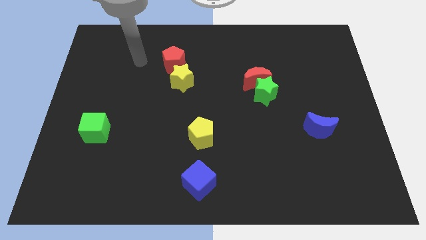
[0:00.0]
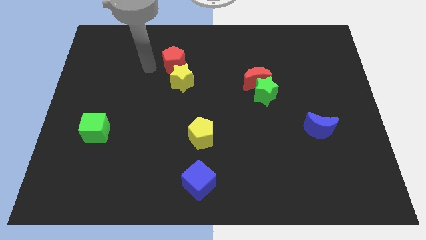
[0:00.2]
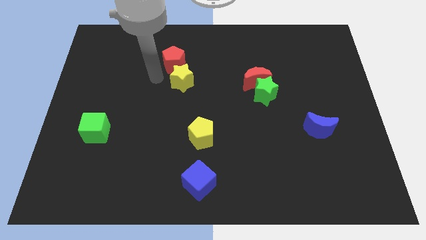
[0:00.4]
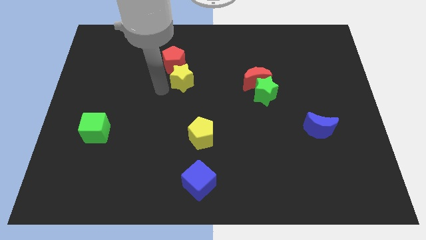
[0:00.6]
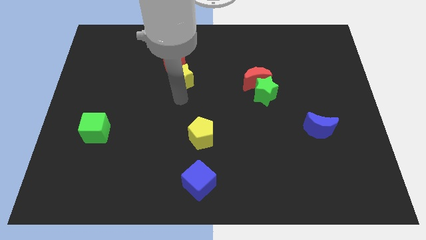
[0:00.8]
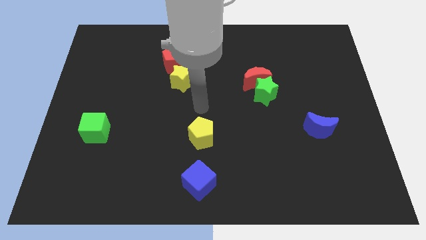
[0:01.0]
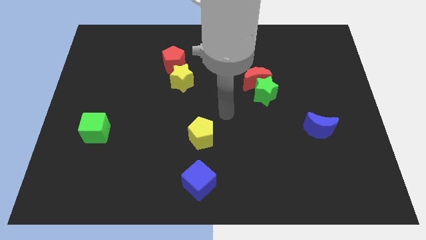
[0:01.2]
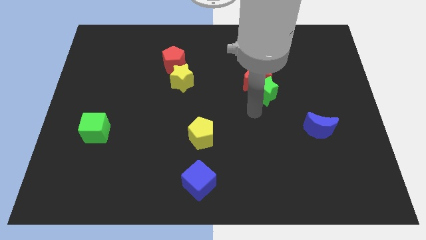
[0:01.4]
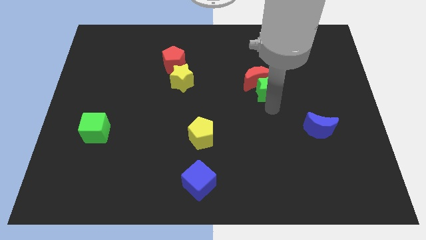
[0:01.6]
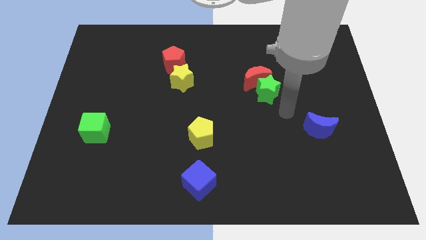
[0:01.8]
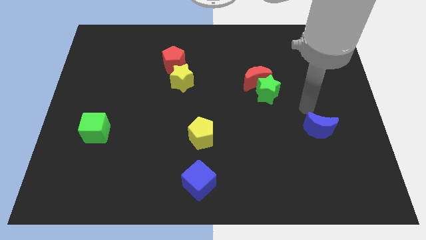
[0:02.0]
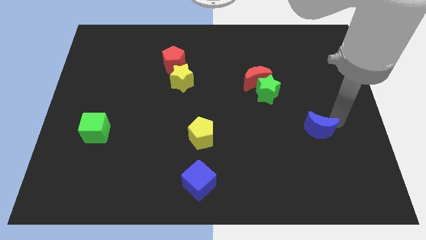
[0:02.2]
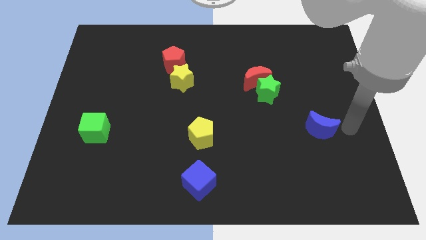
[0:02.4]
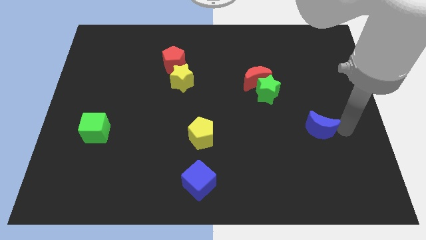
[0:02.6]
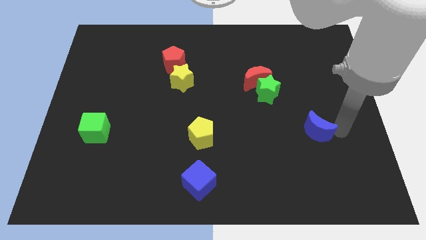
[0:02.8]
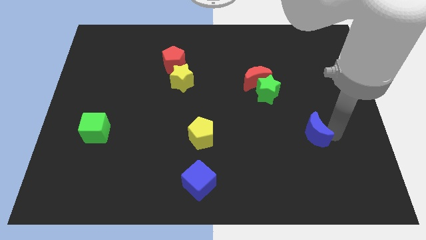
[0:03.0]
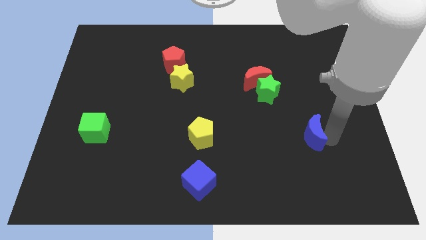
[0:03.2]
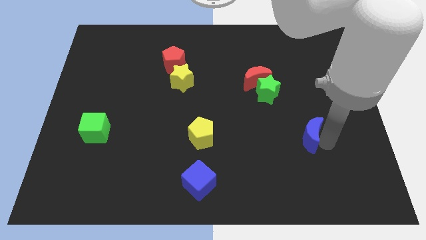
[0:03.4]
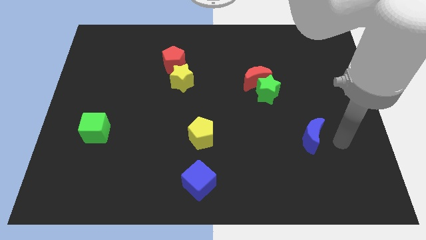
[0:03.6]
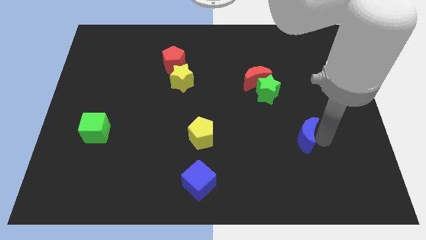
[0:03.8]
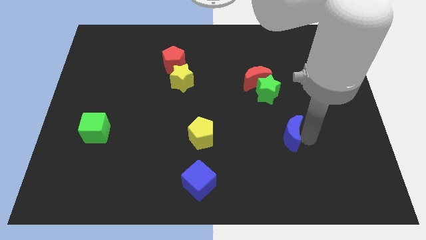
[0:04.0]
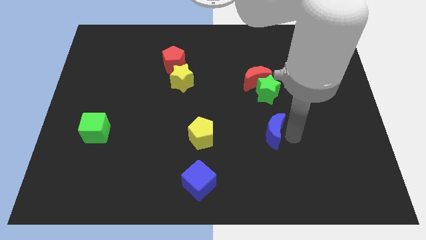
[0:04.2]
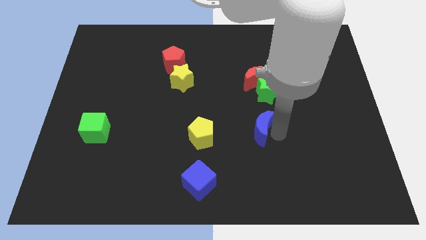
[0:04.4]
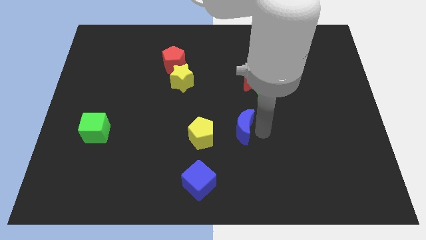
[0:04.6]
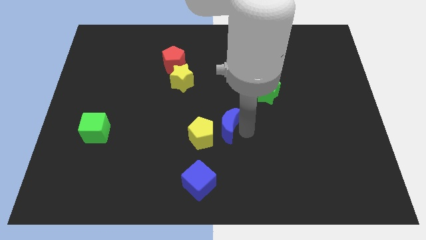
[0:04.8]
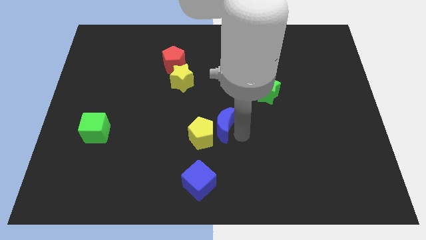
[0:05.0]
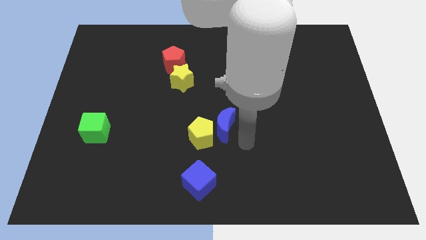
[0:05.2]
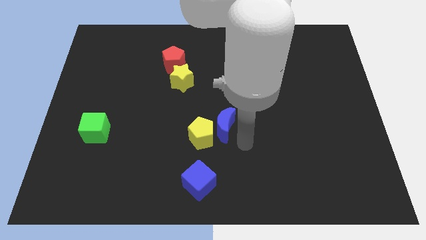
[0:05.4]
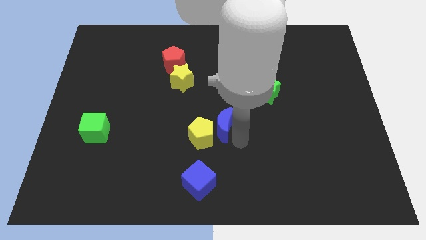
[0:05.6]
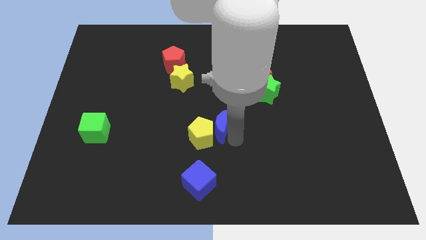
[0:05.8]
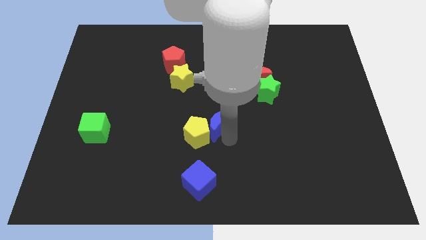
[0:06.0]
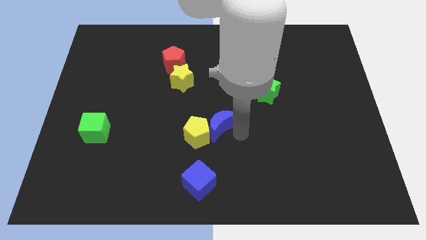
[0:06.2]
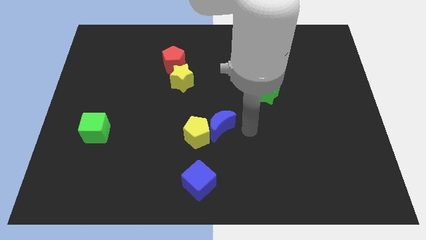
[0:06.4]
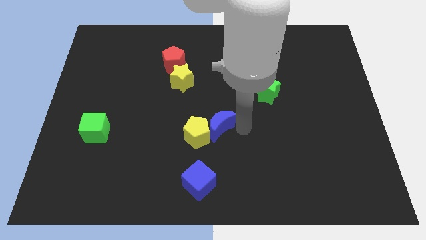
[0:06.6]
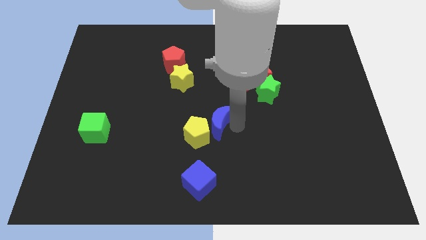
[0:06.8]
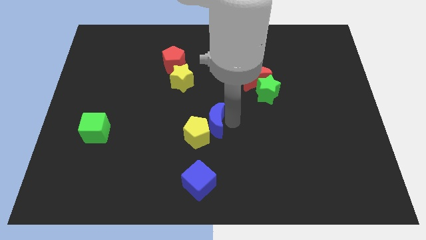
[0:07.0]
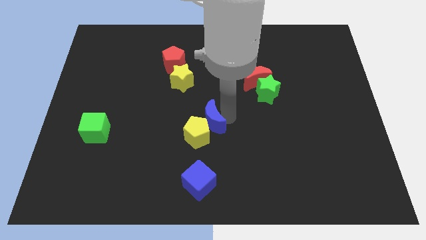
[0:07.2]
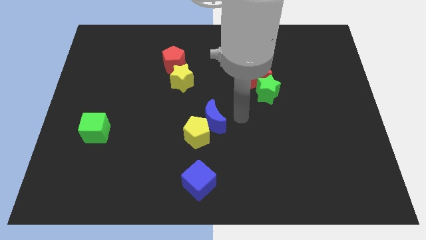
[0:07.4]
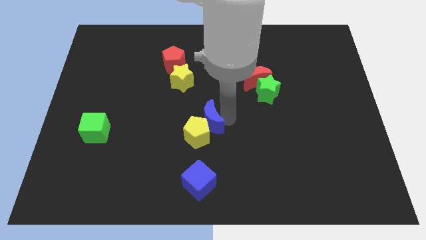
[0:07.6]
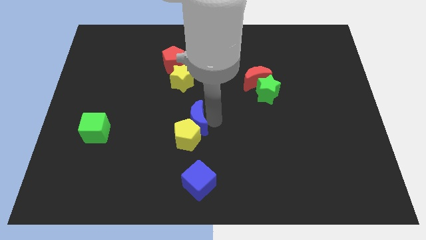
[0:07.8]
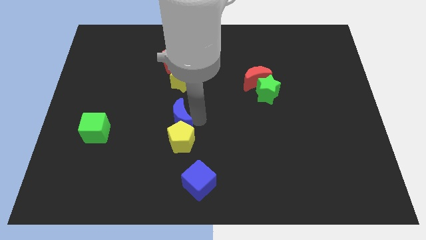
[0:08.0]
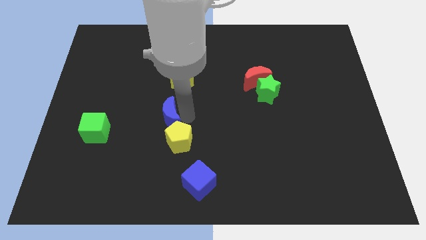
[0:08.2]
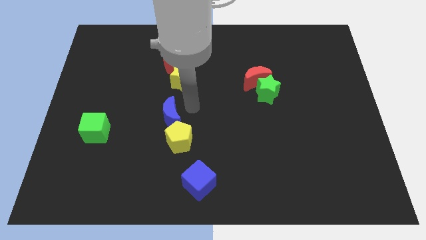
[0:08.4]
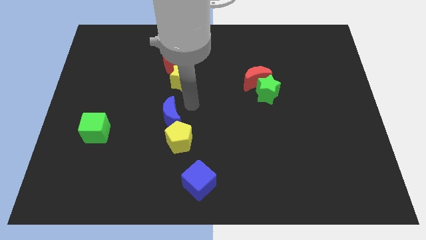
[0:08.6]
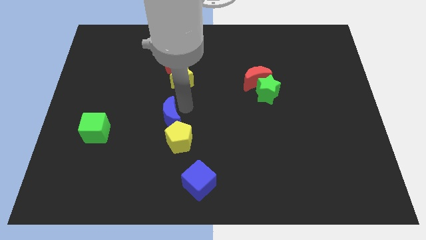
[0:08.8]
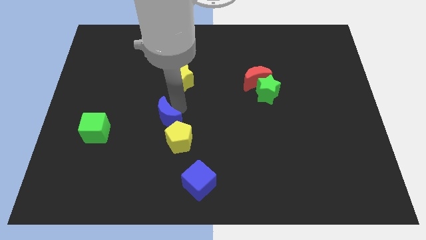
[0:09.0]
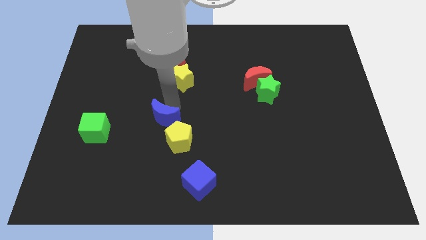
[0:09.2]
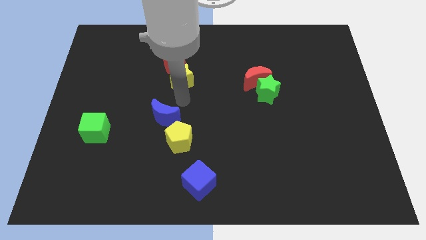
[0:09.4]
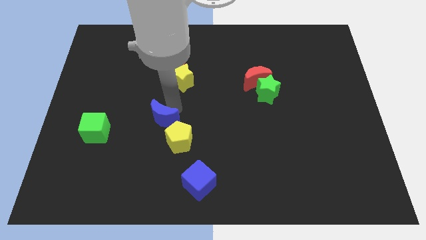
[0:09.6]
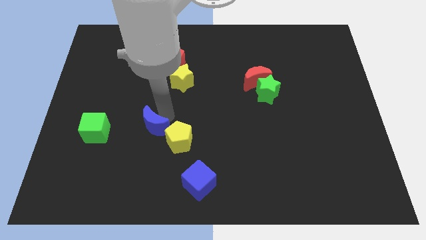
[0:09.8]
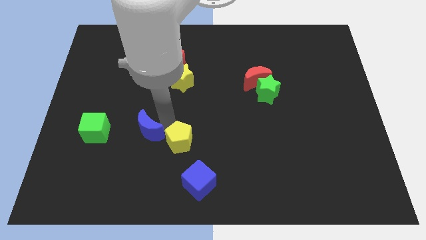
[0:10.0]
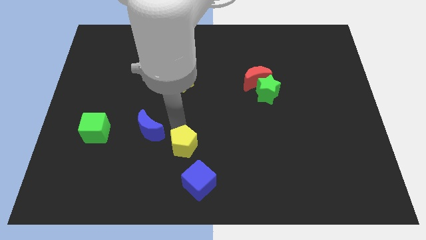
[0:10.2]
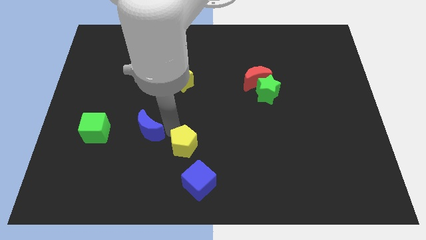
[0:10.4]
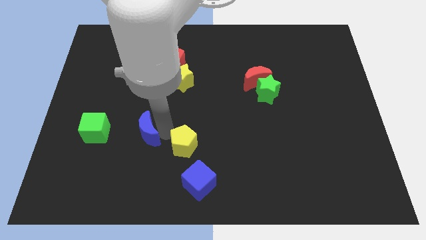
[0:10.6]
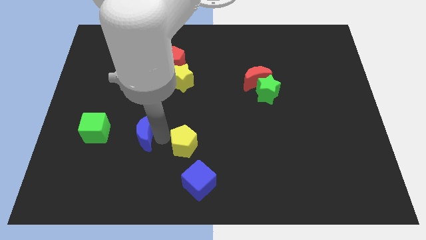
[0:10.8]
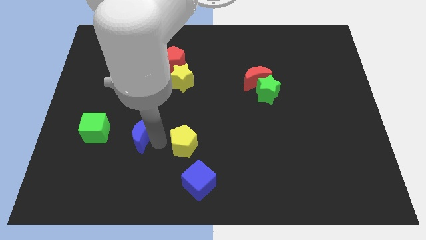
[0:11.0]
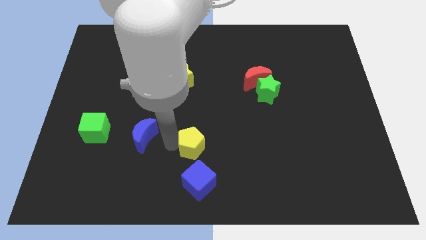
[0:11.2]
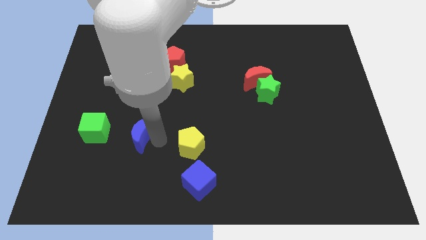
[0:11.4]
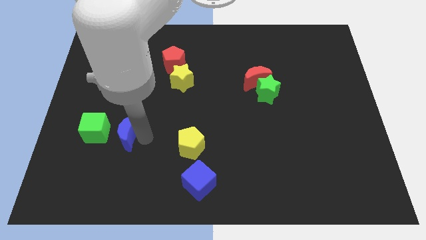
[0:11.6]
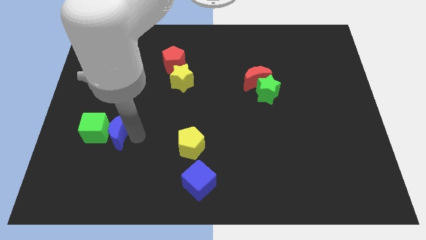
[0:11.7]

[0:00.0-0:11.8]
put the blue moon close to the green cube

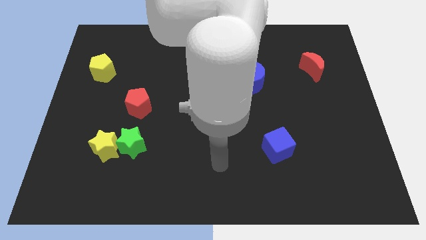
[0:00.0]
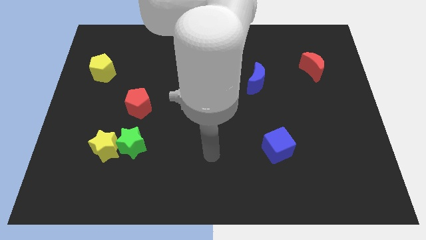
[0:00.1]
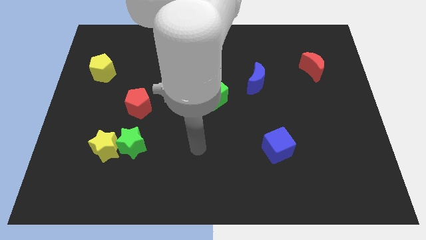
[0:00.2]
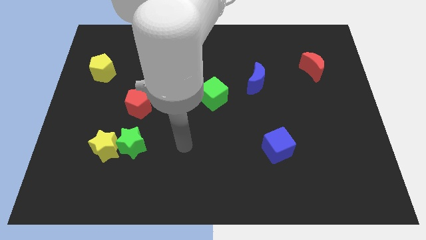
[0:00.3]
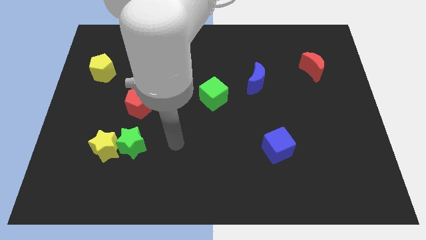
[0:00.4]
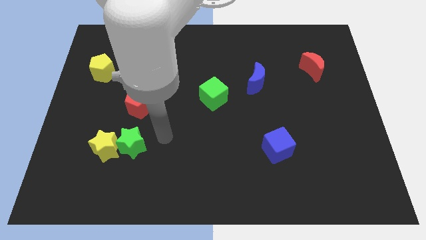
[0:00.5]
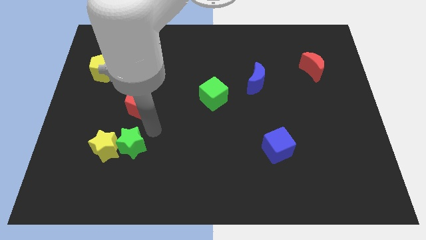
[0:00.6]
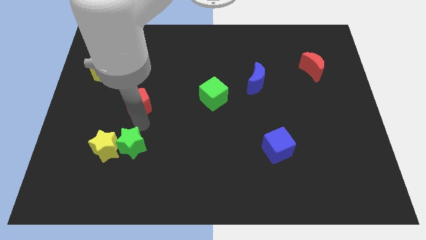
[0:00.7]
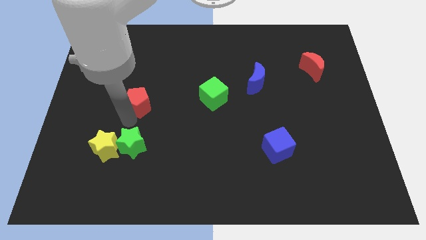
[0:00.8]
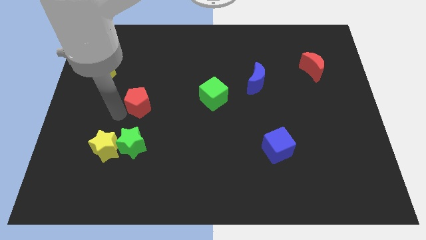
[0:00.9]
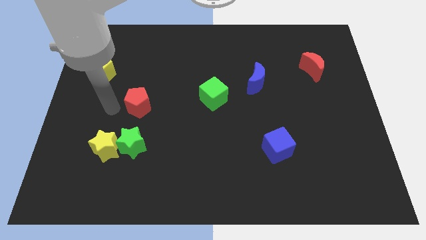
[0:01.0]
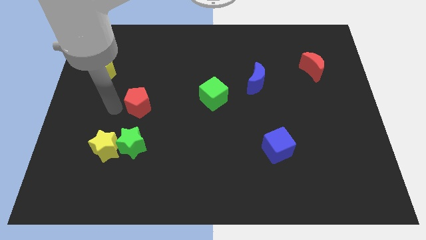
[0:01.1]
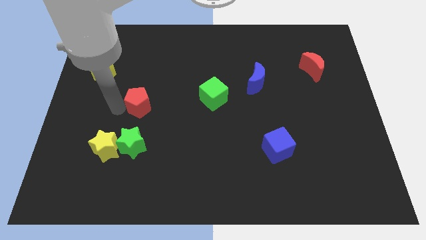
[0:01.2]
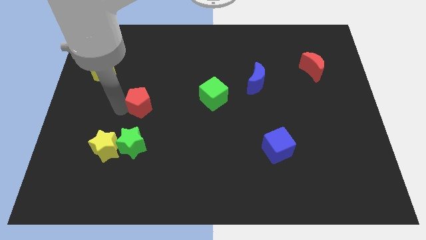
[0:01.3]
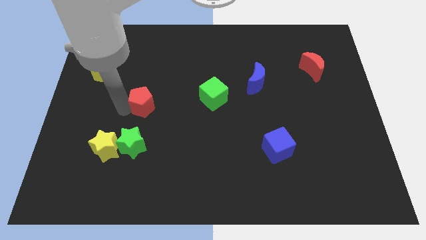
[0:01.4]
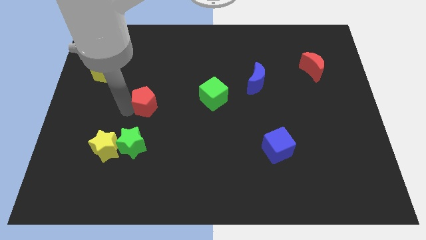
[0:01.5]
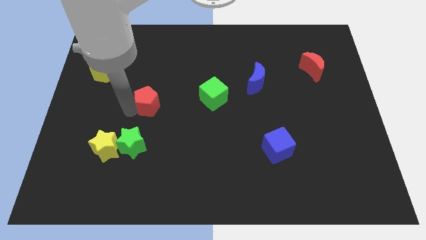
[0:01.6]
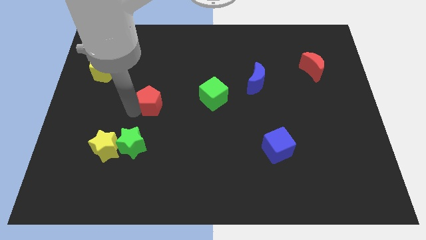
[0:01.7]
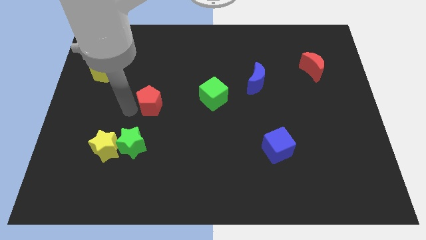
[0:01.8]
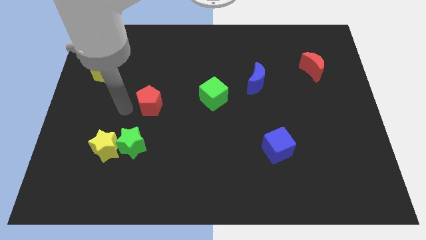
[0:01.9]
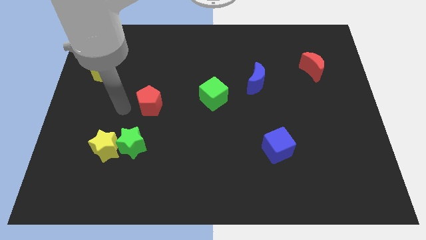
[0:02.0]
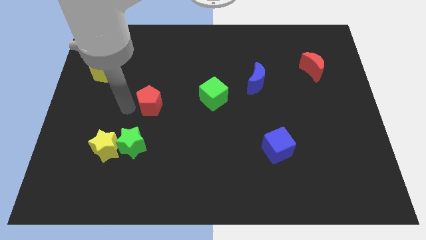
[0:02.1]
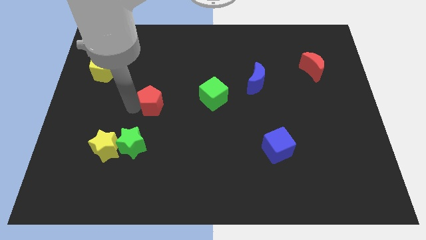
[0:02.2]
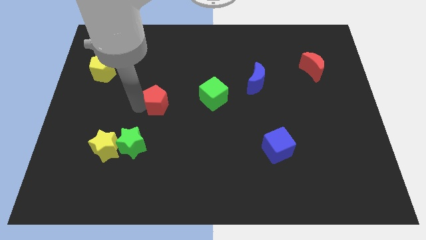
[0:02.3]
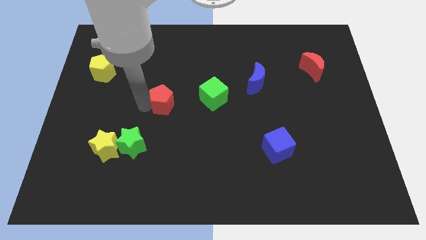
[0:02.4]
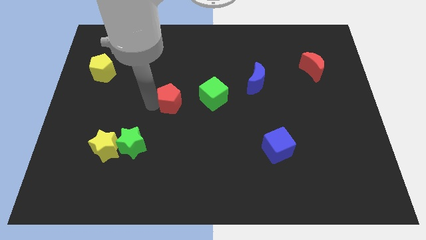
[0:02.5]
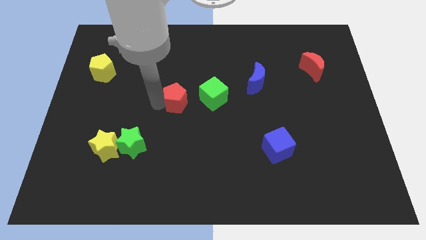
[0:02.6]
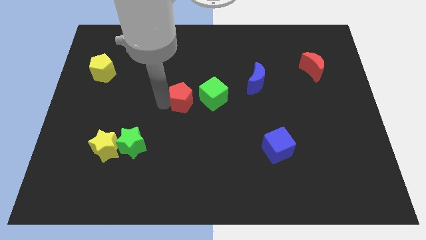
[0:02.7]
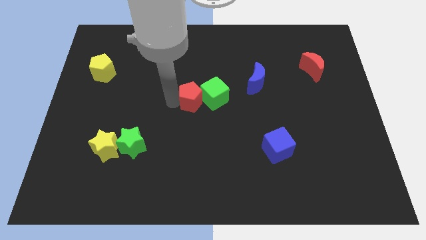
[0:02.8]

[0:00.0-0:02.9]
put the red pentagon next to the green cube
